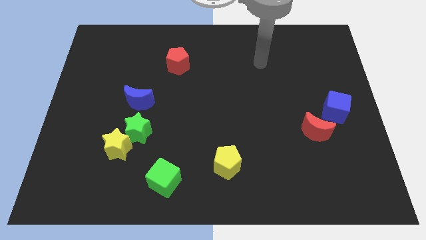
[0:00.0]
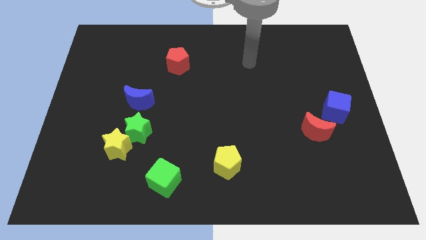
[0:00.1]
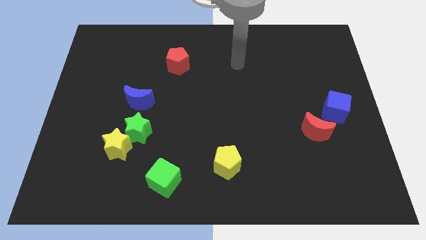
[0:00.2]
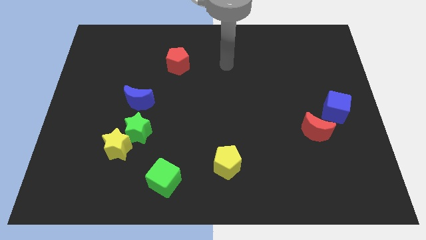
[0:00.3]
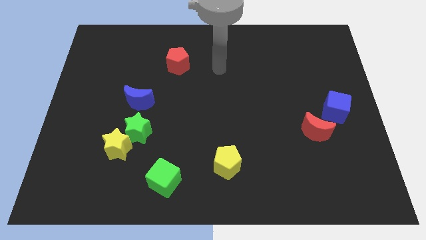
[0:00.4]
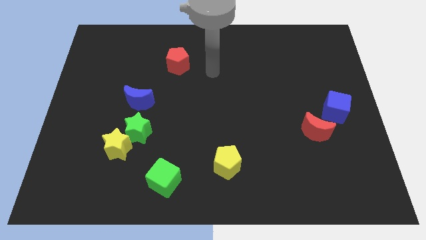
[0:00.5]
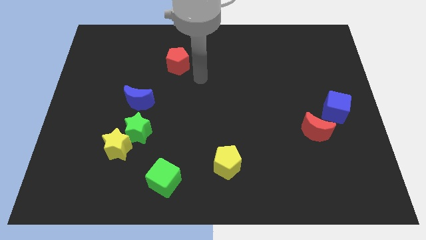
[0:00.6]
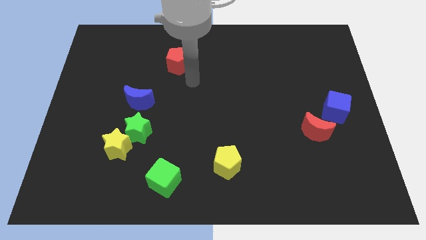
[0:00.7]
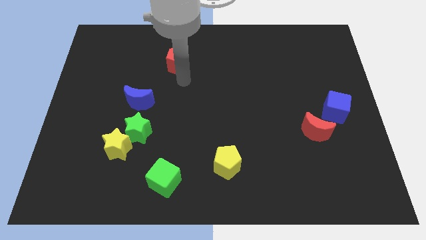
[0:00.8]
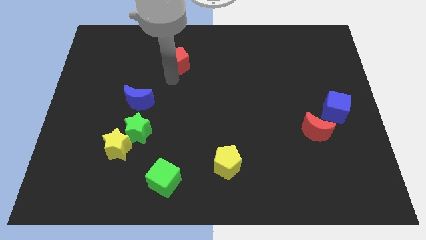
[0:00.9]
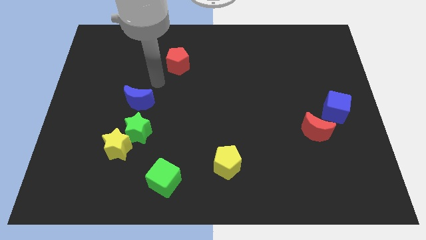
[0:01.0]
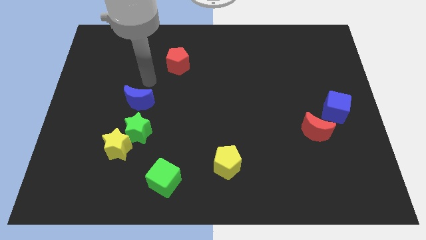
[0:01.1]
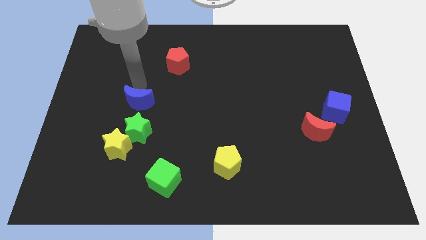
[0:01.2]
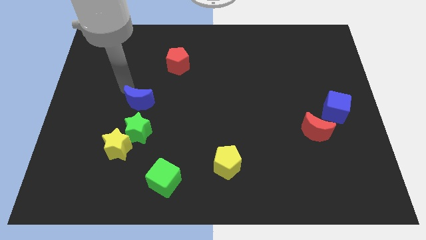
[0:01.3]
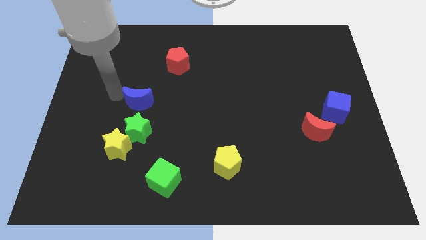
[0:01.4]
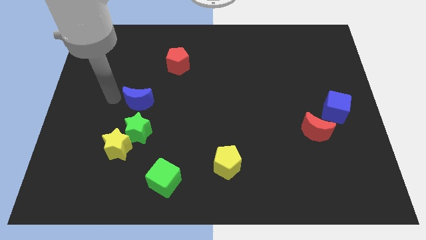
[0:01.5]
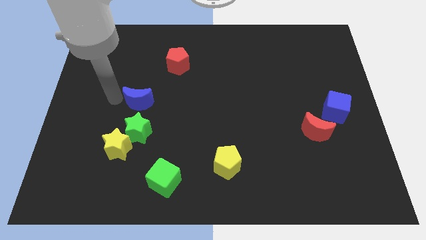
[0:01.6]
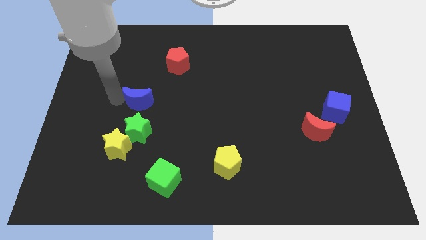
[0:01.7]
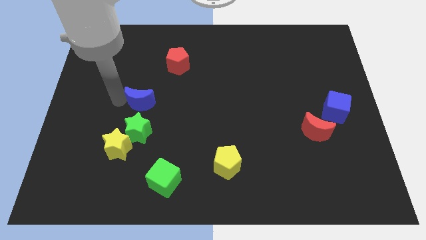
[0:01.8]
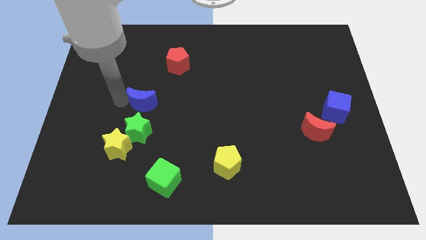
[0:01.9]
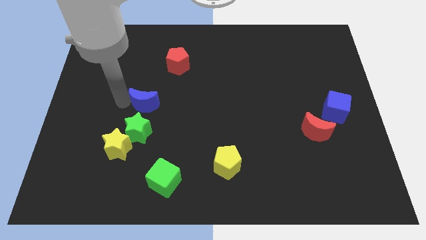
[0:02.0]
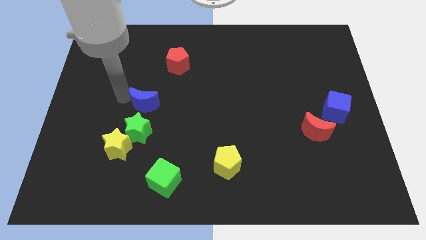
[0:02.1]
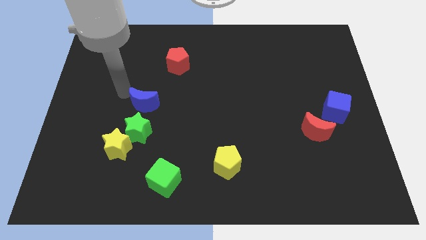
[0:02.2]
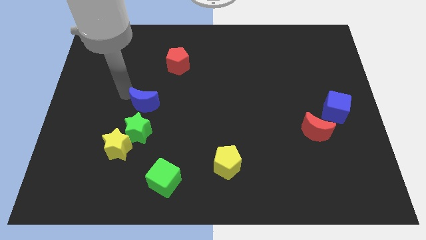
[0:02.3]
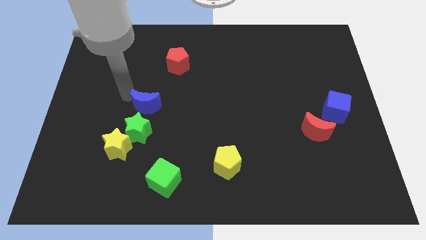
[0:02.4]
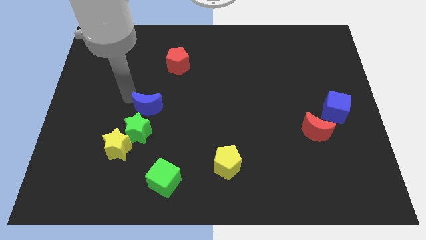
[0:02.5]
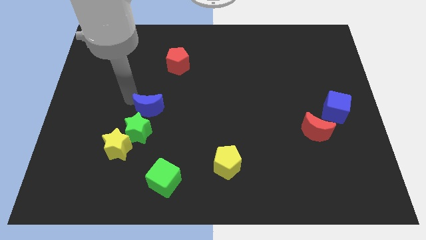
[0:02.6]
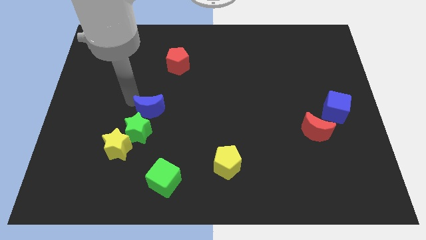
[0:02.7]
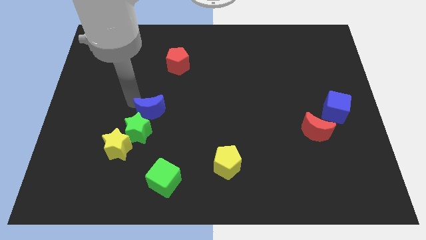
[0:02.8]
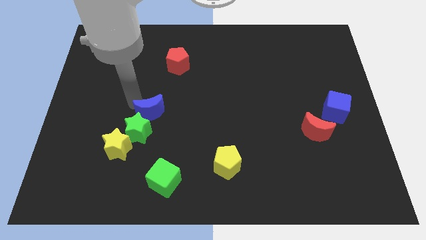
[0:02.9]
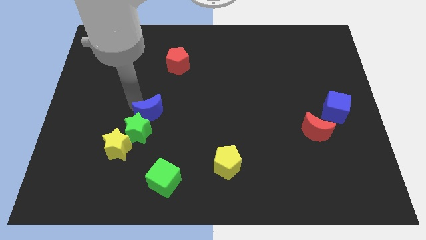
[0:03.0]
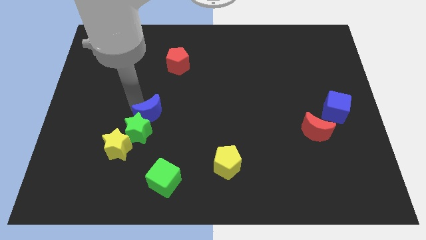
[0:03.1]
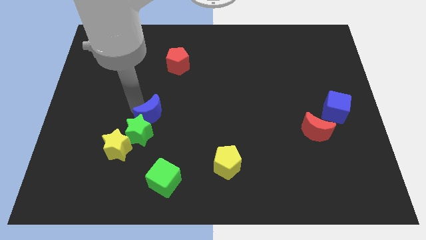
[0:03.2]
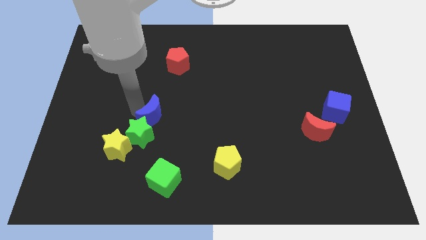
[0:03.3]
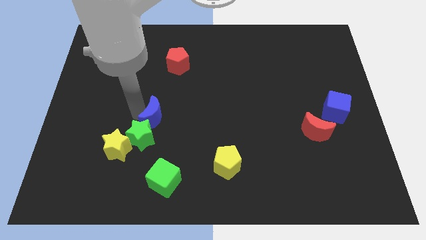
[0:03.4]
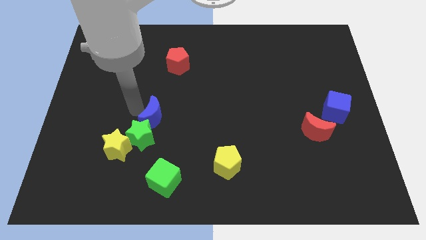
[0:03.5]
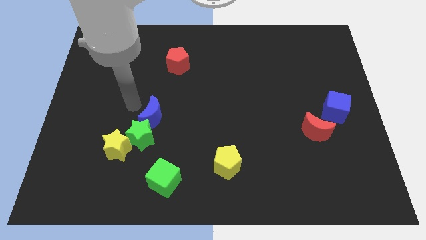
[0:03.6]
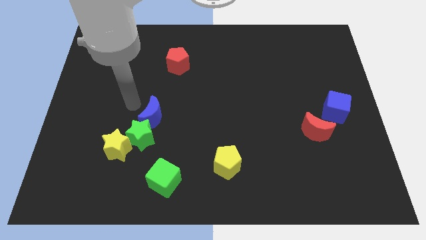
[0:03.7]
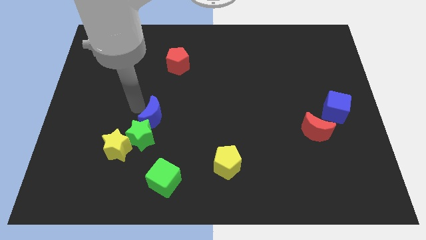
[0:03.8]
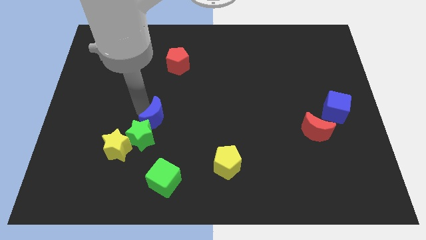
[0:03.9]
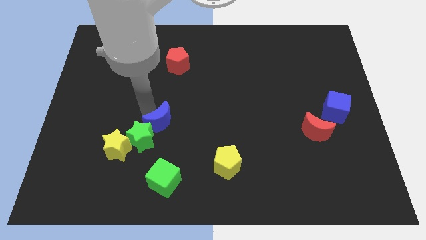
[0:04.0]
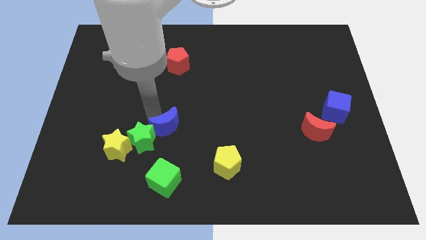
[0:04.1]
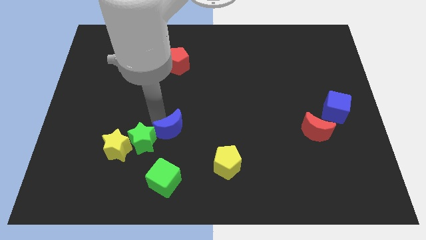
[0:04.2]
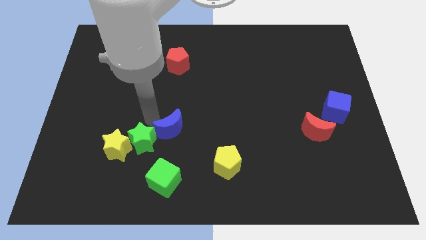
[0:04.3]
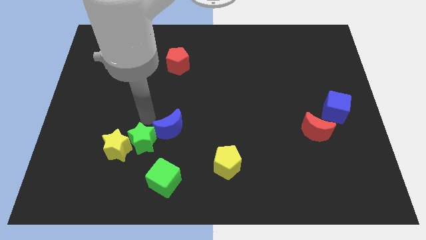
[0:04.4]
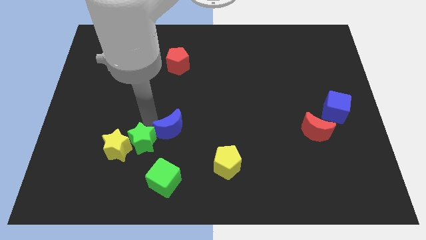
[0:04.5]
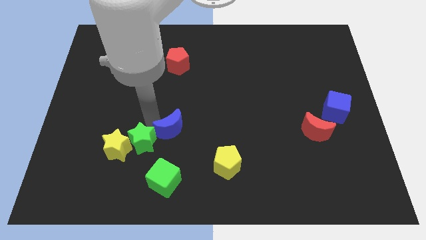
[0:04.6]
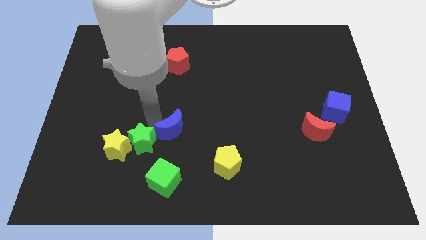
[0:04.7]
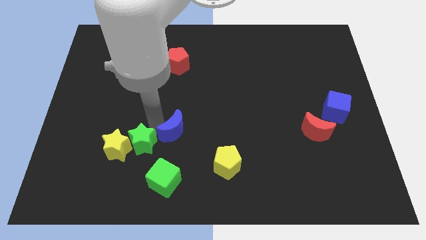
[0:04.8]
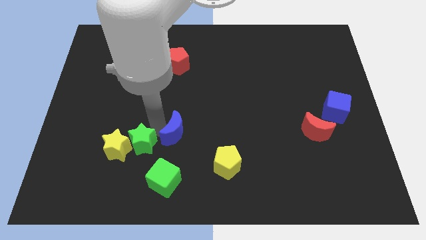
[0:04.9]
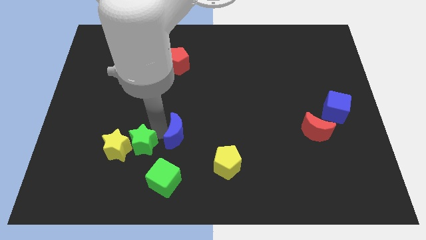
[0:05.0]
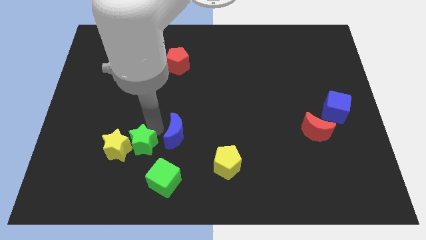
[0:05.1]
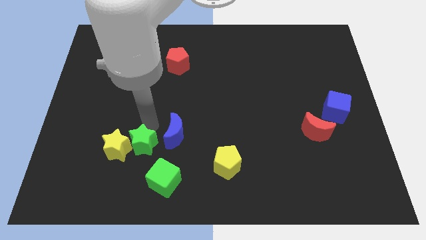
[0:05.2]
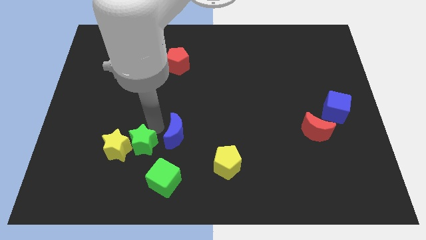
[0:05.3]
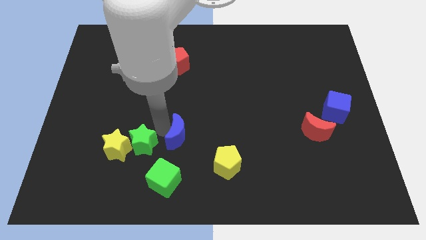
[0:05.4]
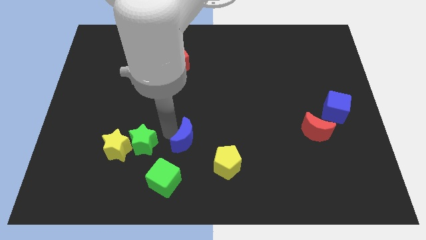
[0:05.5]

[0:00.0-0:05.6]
put the blue moon diagonally up and to the left of the yellow pentagon

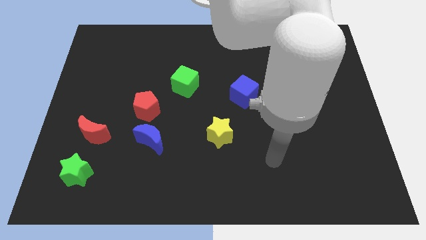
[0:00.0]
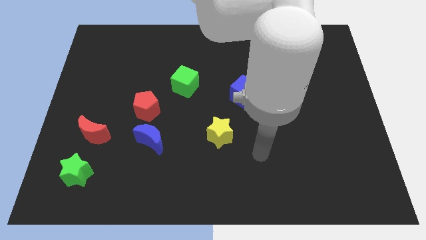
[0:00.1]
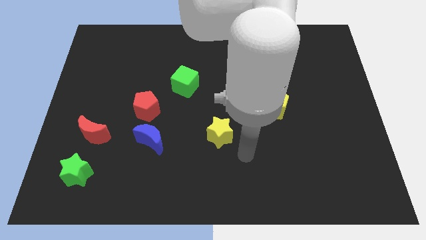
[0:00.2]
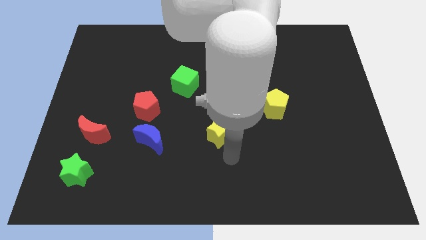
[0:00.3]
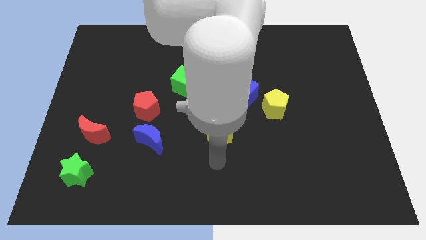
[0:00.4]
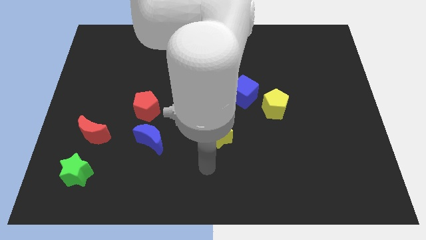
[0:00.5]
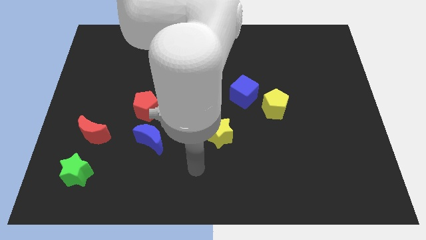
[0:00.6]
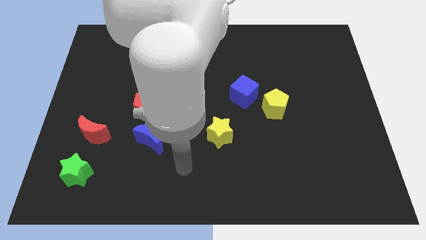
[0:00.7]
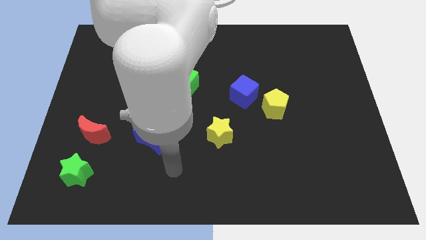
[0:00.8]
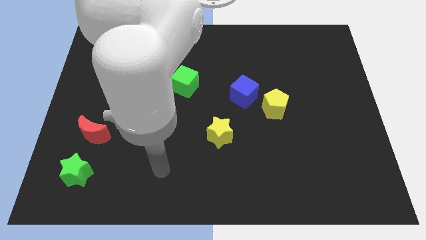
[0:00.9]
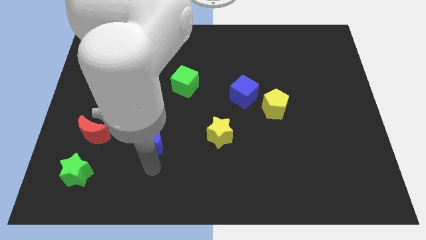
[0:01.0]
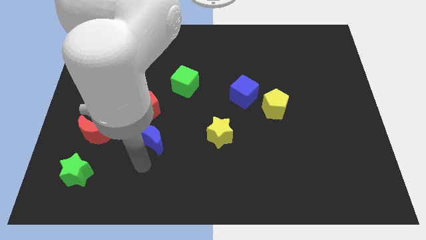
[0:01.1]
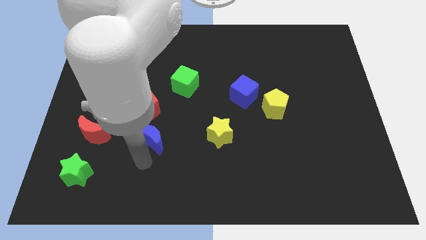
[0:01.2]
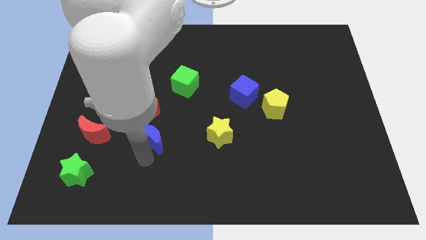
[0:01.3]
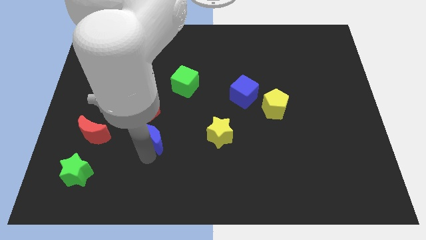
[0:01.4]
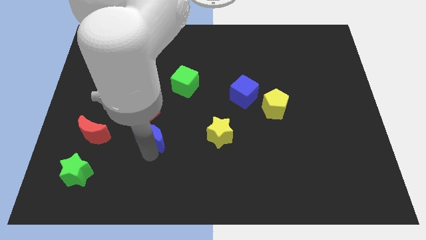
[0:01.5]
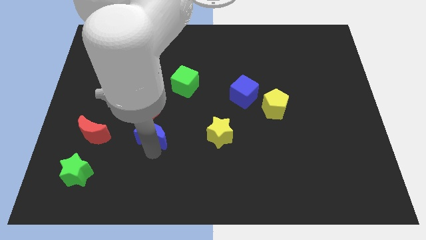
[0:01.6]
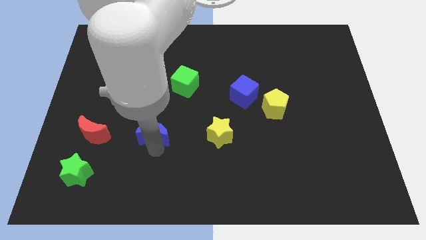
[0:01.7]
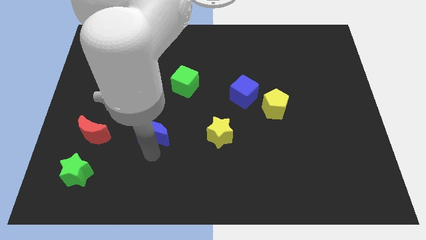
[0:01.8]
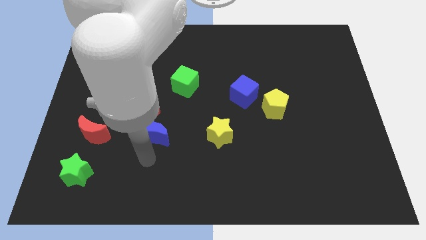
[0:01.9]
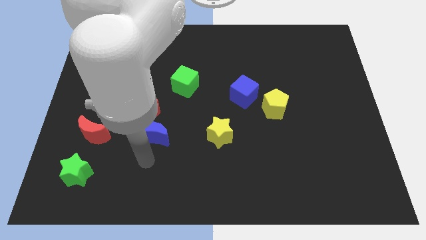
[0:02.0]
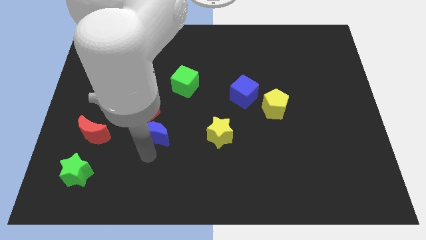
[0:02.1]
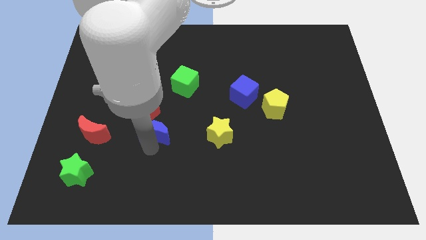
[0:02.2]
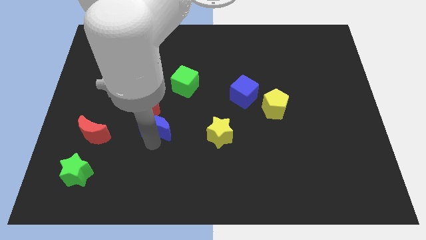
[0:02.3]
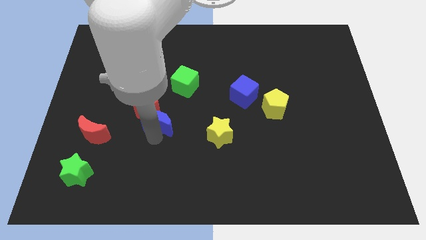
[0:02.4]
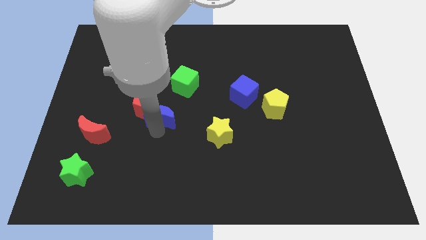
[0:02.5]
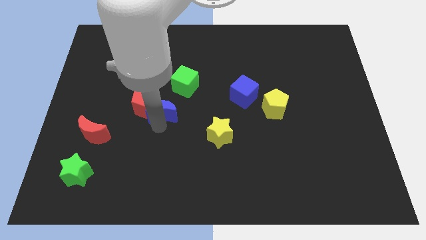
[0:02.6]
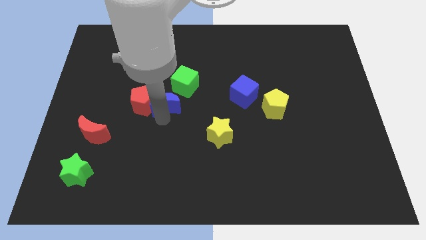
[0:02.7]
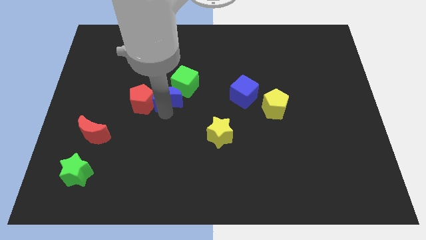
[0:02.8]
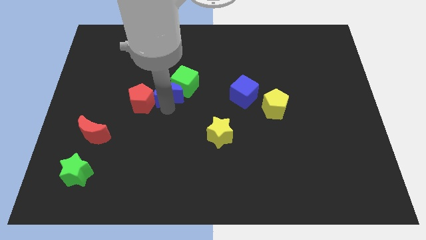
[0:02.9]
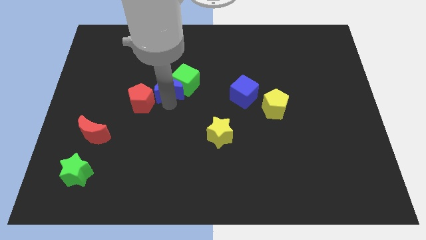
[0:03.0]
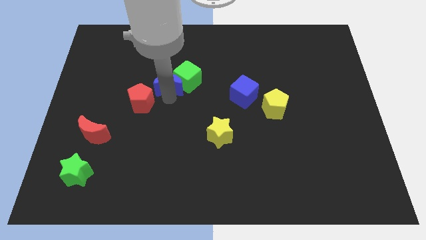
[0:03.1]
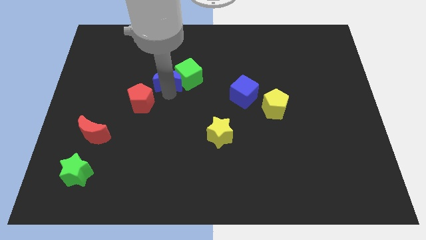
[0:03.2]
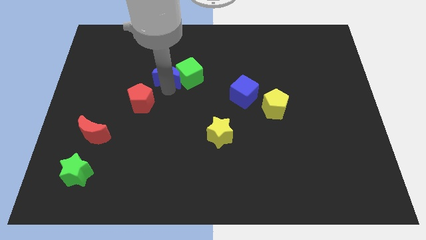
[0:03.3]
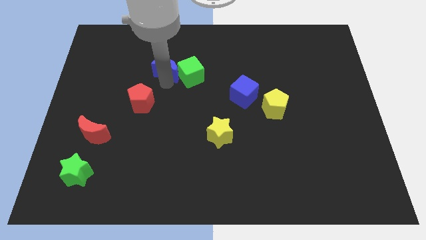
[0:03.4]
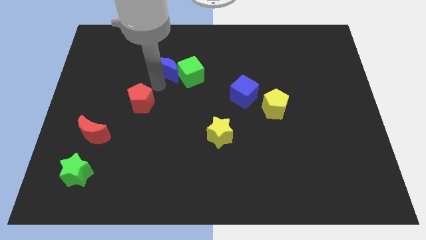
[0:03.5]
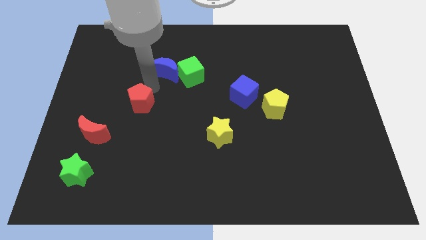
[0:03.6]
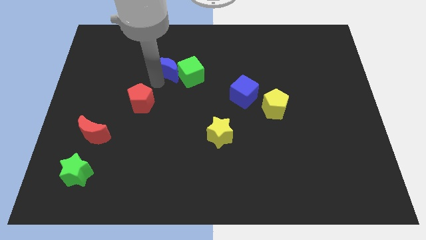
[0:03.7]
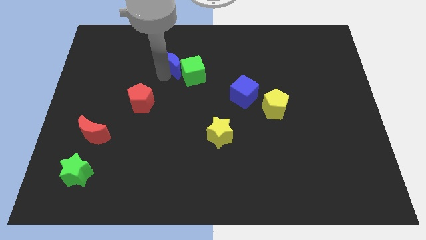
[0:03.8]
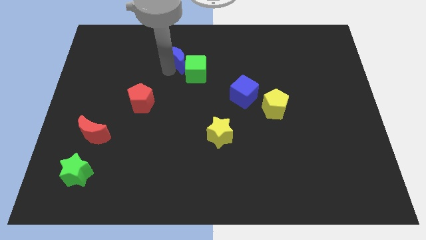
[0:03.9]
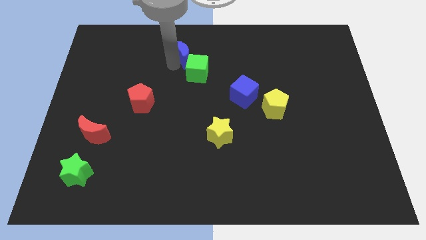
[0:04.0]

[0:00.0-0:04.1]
put the blue moon to the top side of the green cube
